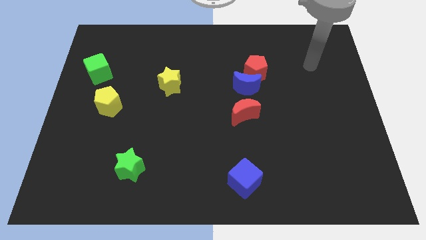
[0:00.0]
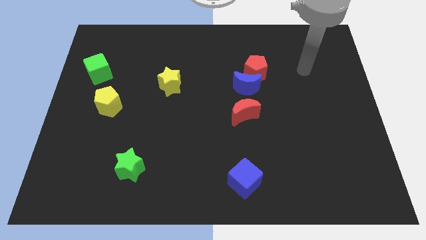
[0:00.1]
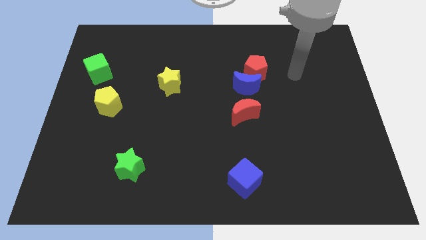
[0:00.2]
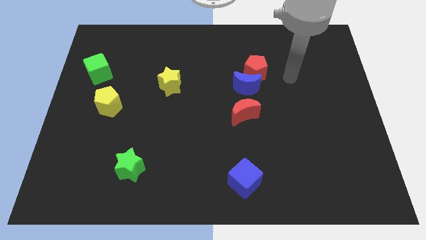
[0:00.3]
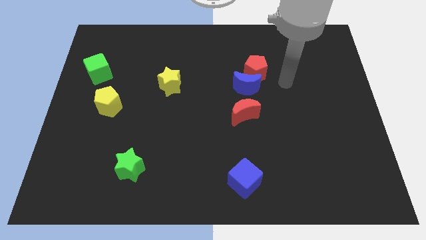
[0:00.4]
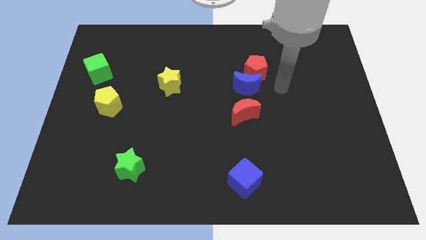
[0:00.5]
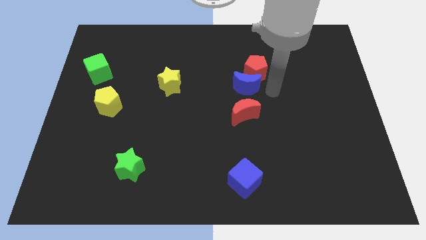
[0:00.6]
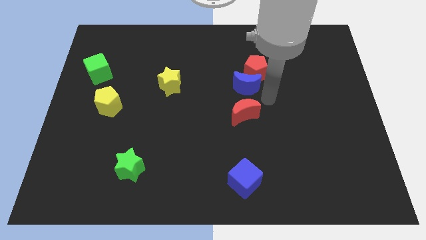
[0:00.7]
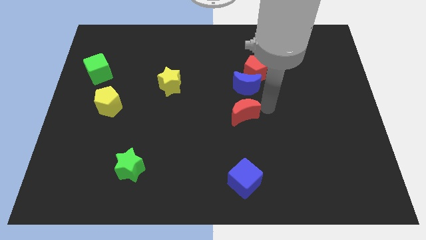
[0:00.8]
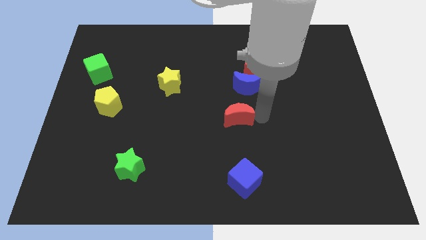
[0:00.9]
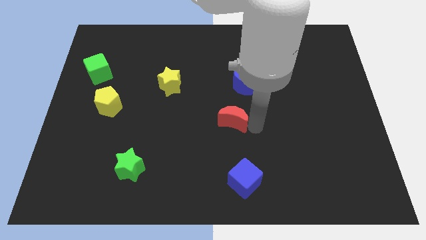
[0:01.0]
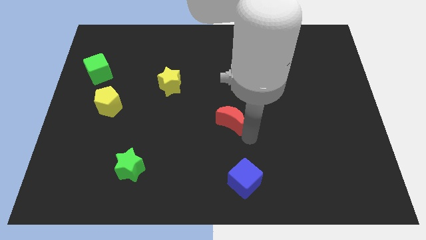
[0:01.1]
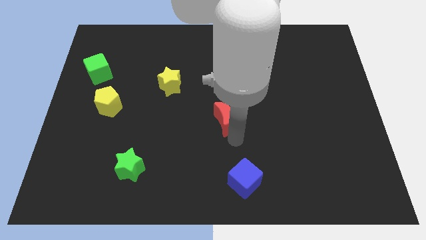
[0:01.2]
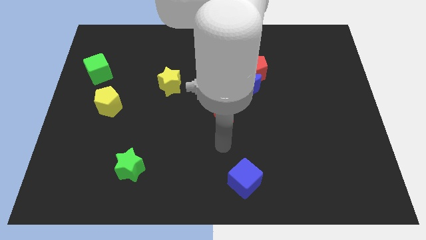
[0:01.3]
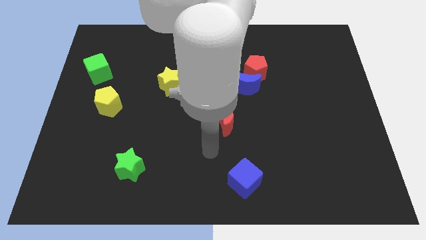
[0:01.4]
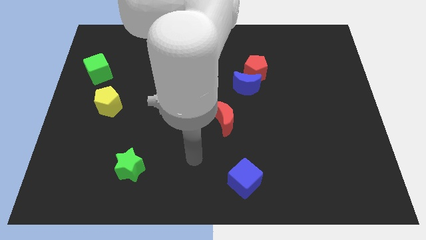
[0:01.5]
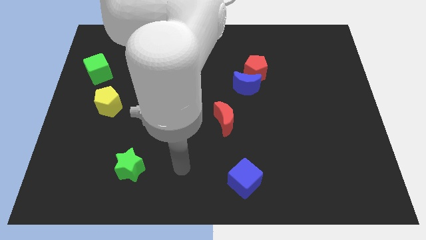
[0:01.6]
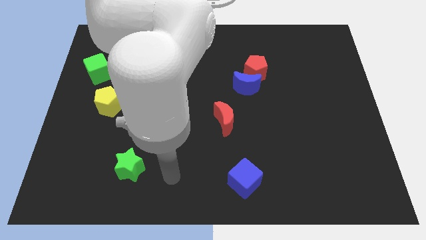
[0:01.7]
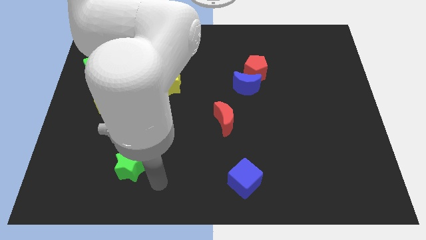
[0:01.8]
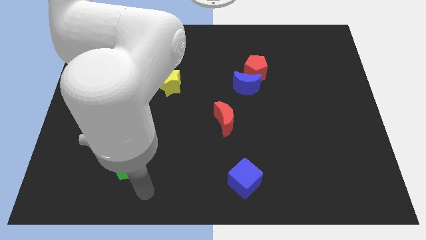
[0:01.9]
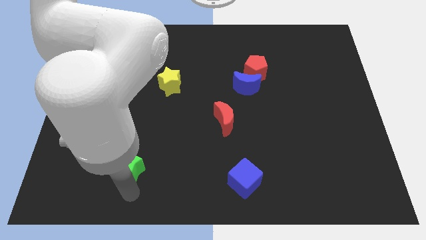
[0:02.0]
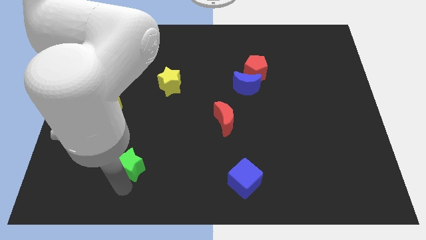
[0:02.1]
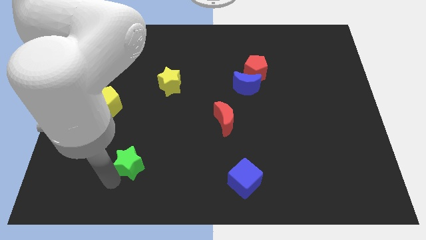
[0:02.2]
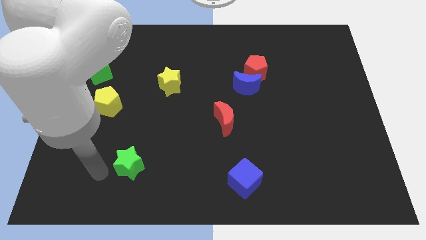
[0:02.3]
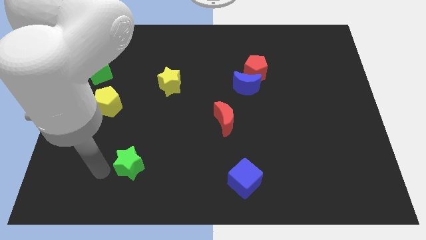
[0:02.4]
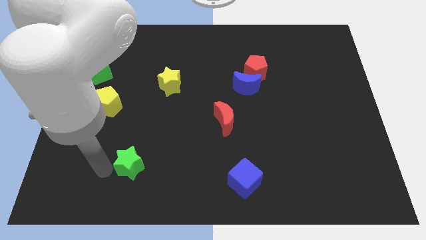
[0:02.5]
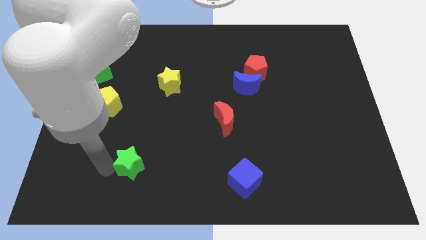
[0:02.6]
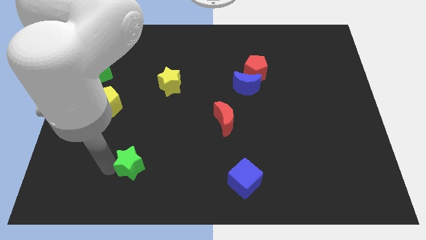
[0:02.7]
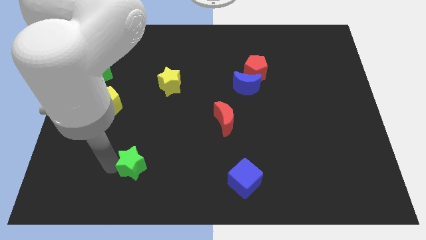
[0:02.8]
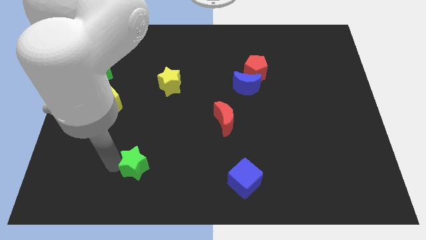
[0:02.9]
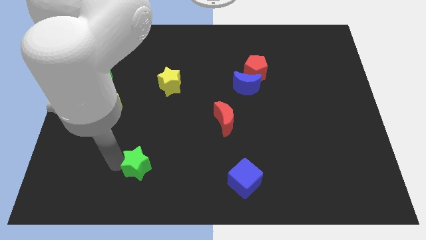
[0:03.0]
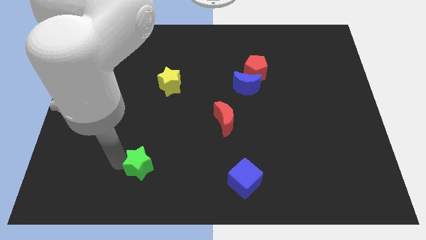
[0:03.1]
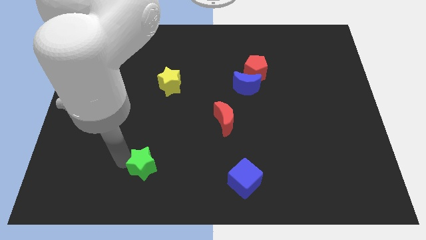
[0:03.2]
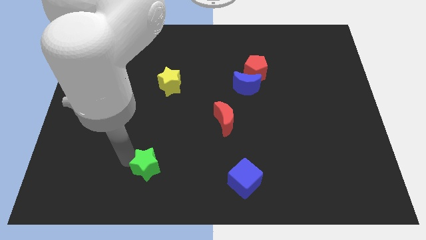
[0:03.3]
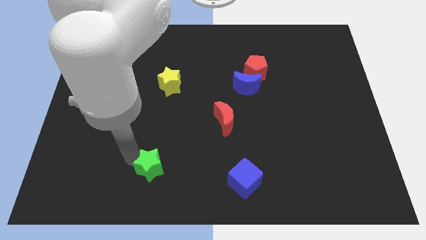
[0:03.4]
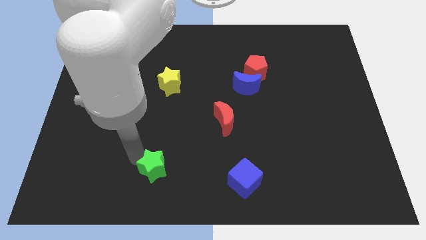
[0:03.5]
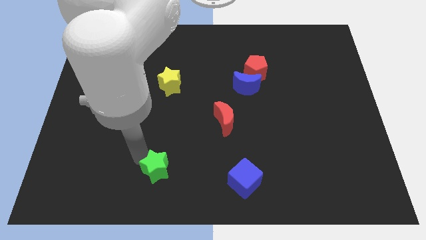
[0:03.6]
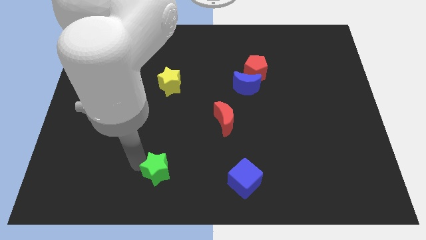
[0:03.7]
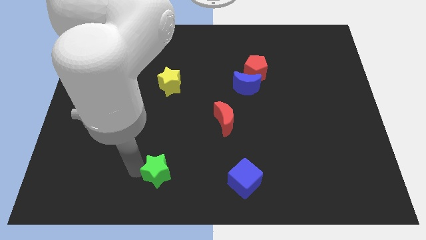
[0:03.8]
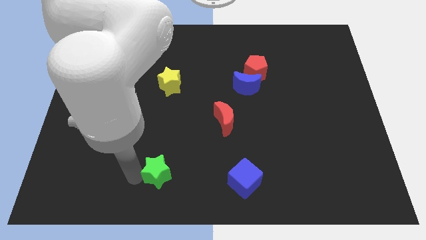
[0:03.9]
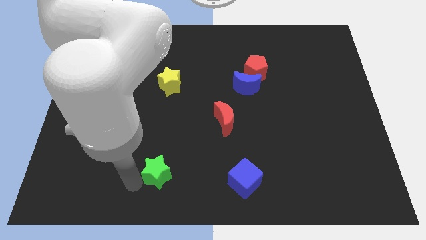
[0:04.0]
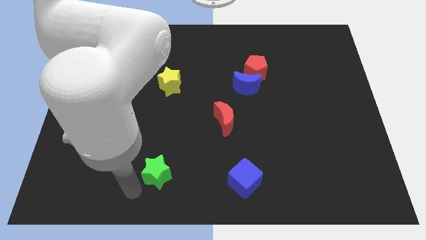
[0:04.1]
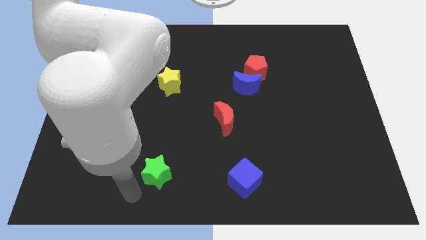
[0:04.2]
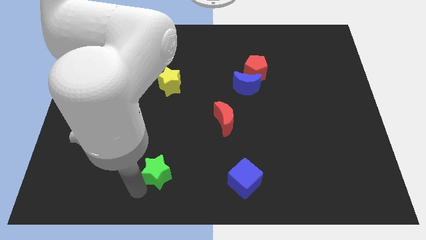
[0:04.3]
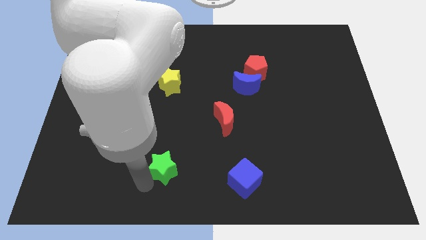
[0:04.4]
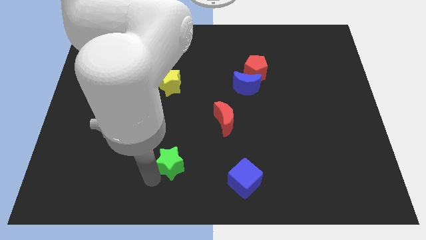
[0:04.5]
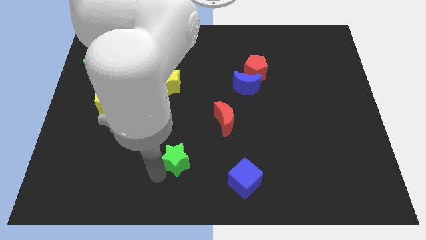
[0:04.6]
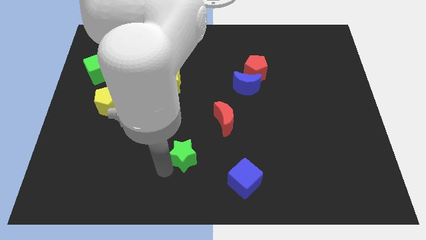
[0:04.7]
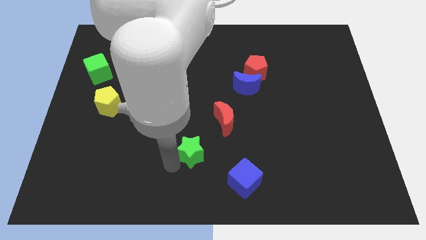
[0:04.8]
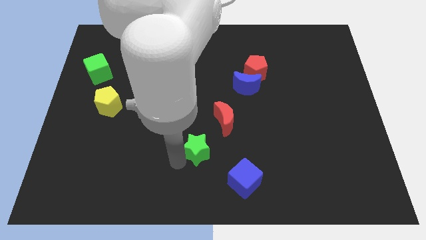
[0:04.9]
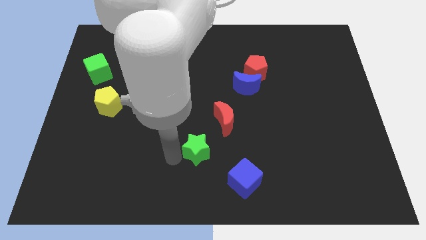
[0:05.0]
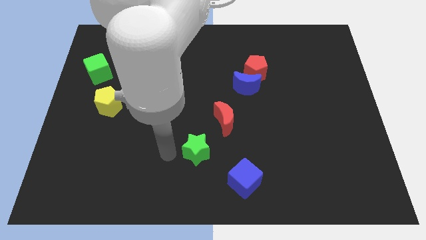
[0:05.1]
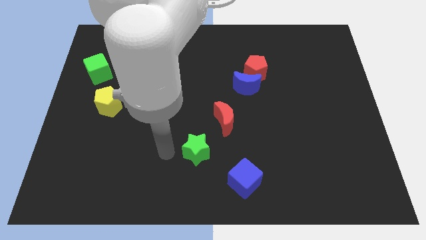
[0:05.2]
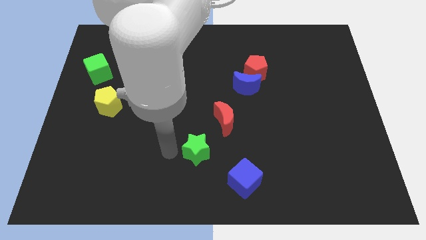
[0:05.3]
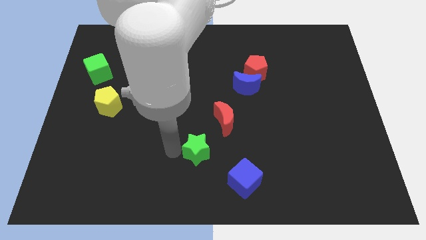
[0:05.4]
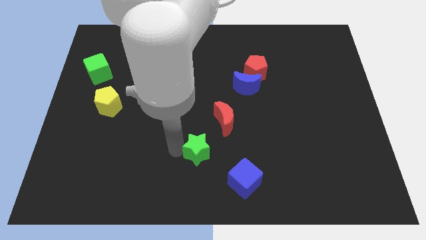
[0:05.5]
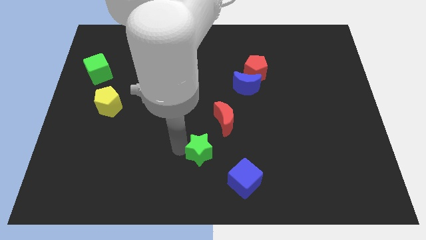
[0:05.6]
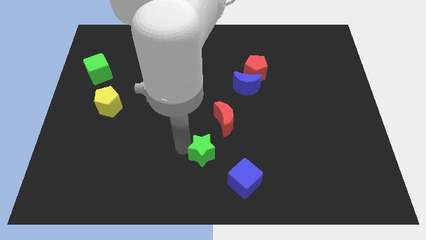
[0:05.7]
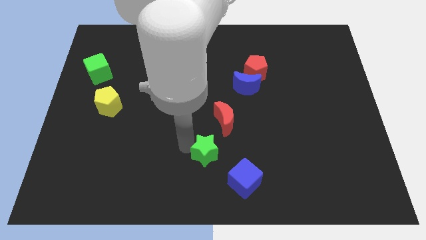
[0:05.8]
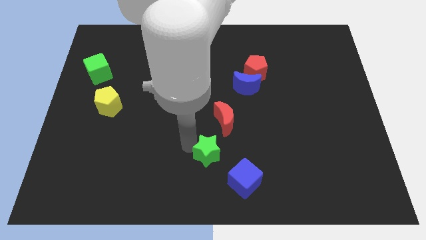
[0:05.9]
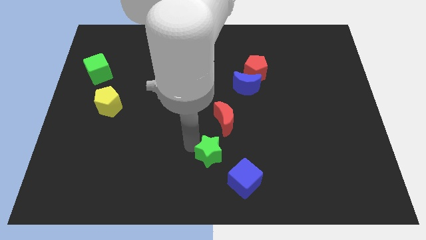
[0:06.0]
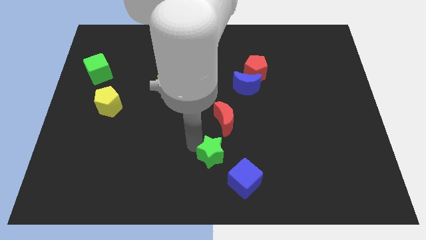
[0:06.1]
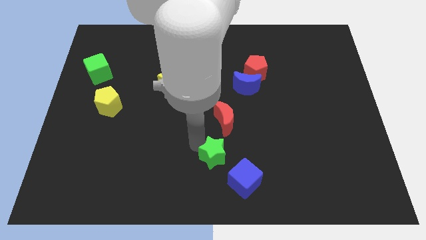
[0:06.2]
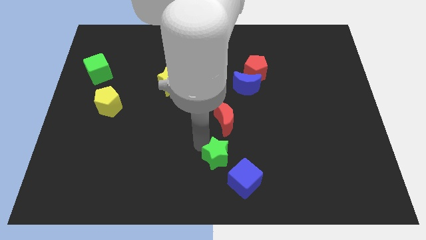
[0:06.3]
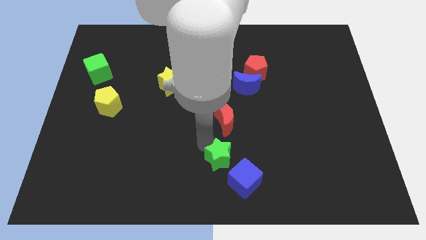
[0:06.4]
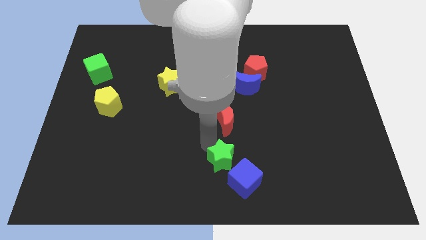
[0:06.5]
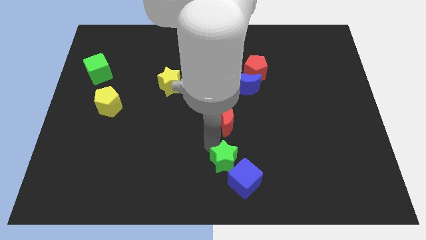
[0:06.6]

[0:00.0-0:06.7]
slide the green star to the right

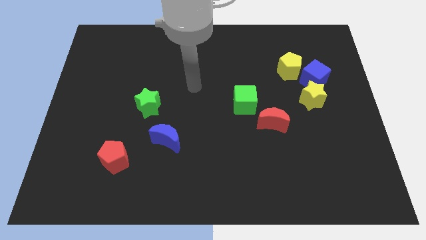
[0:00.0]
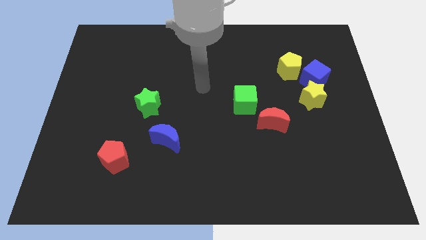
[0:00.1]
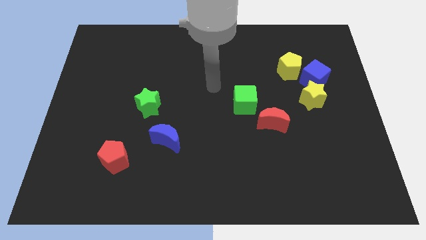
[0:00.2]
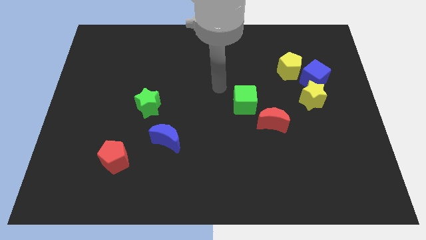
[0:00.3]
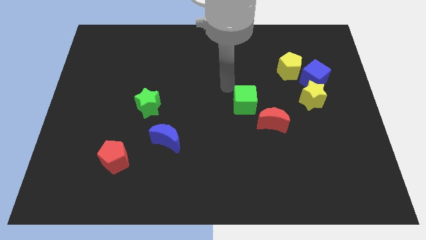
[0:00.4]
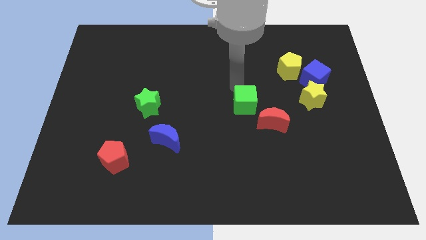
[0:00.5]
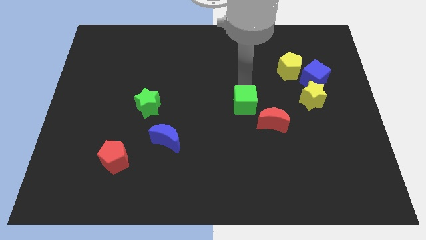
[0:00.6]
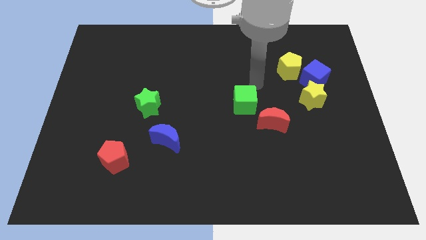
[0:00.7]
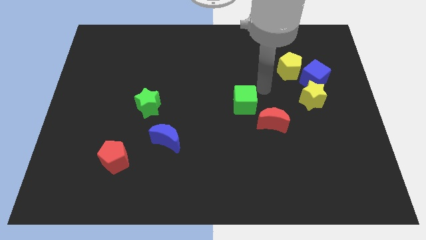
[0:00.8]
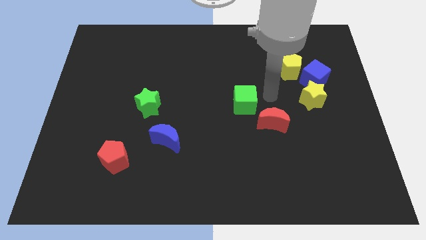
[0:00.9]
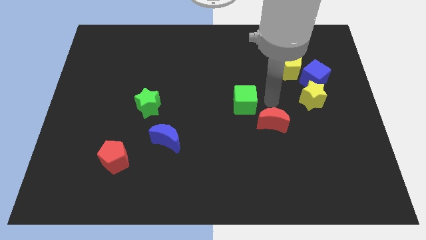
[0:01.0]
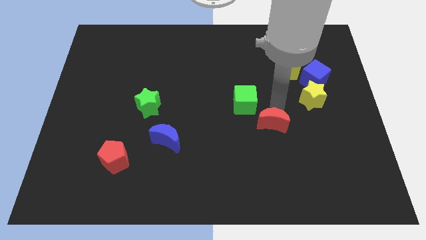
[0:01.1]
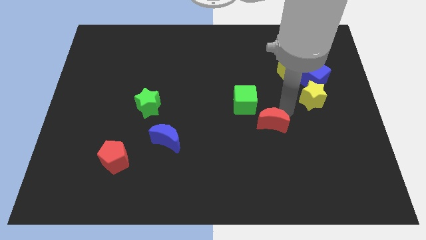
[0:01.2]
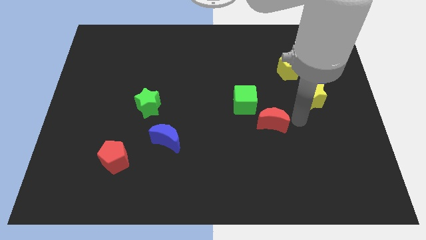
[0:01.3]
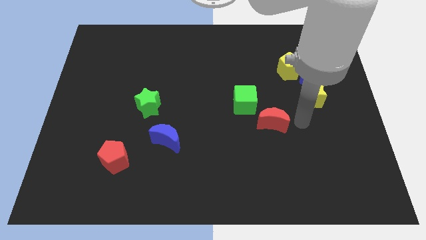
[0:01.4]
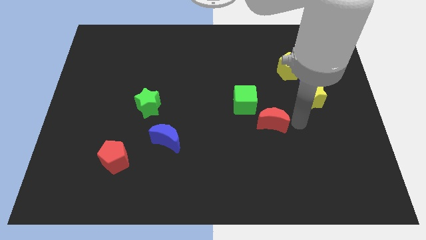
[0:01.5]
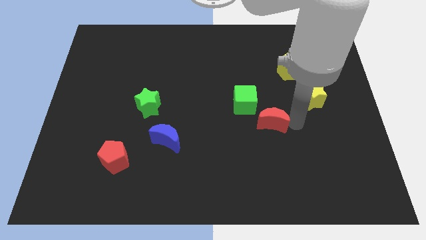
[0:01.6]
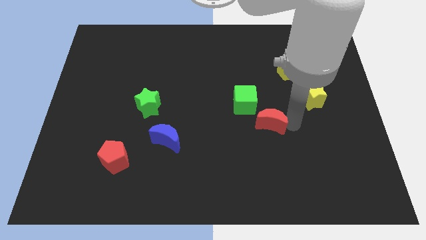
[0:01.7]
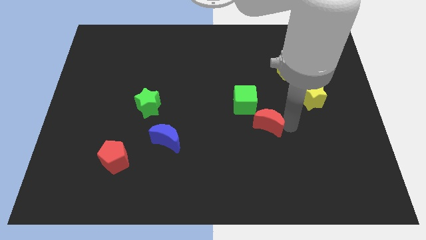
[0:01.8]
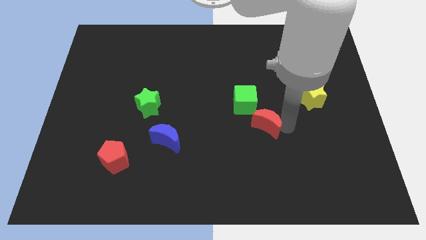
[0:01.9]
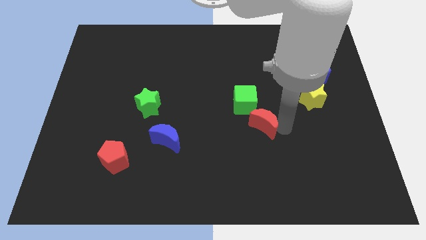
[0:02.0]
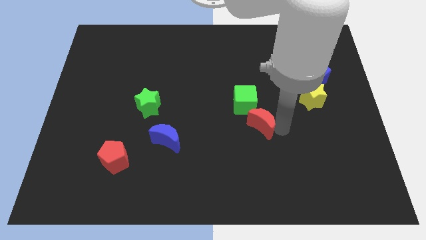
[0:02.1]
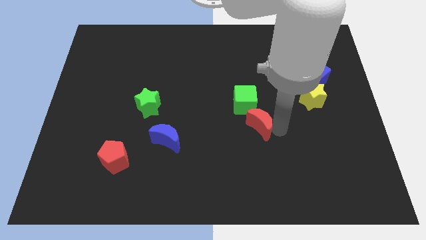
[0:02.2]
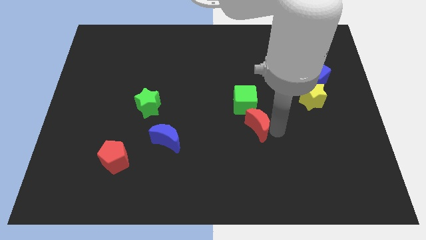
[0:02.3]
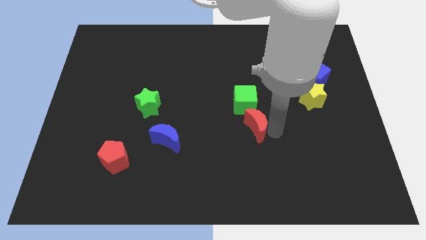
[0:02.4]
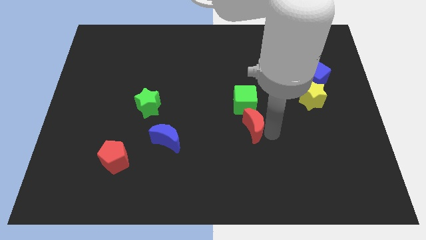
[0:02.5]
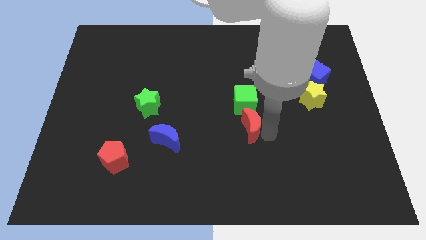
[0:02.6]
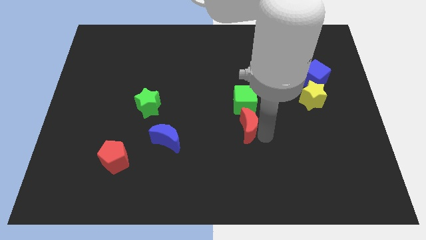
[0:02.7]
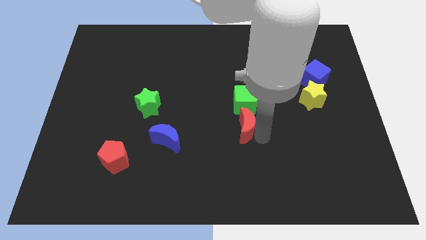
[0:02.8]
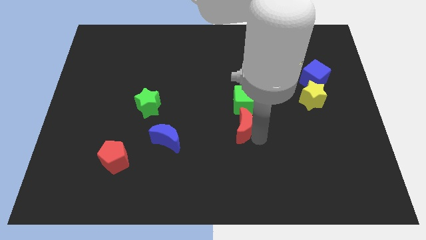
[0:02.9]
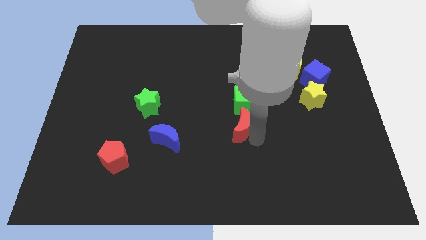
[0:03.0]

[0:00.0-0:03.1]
slightly slide the red moon to the left
